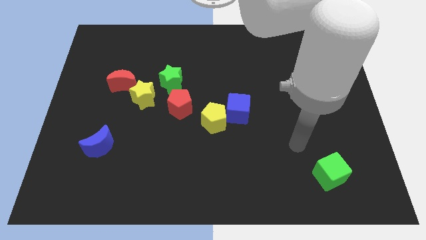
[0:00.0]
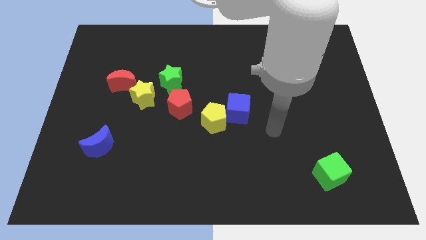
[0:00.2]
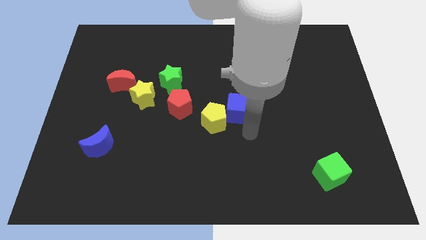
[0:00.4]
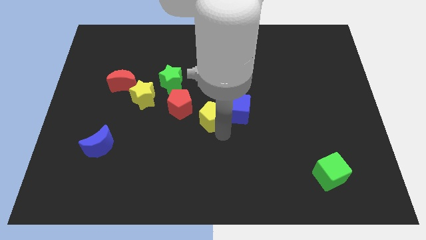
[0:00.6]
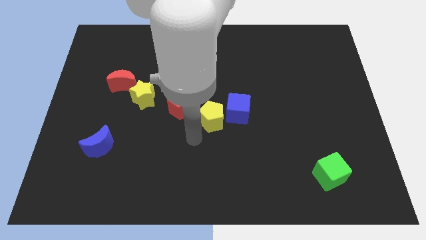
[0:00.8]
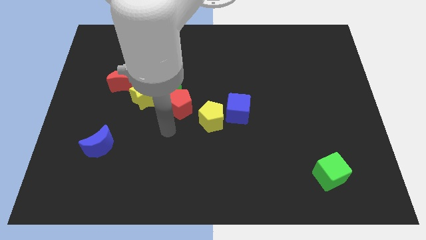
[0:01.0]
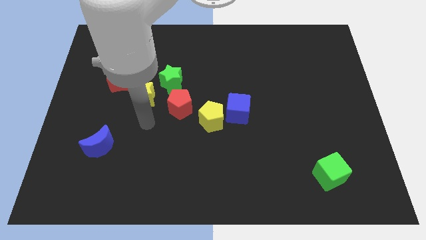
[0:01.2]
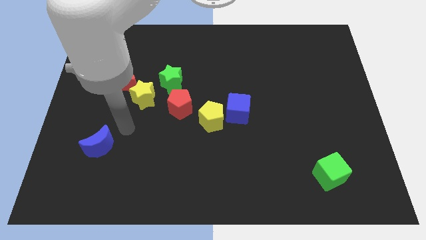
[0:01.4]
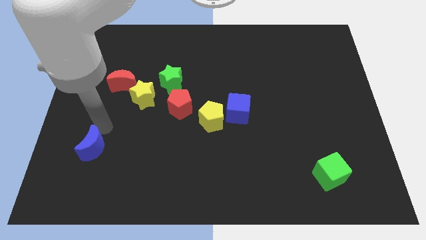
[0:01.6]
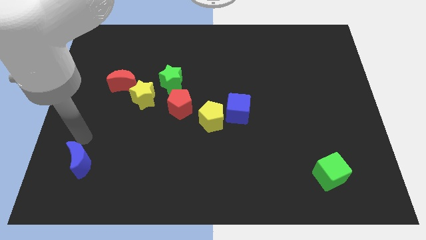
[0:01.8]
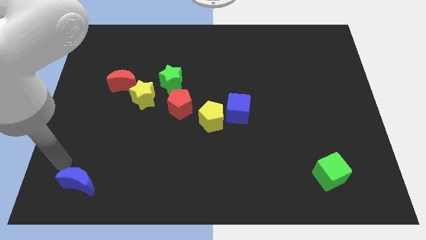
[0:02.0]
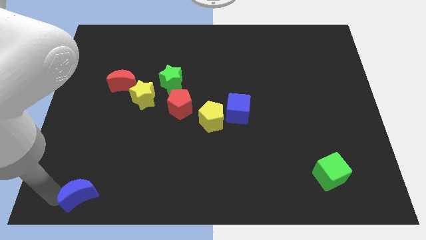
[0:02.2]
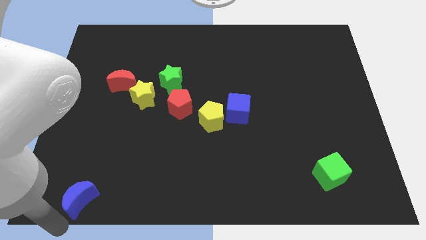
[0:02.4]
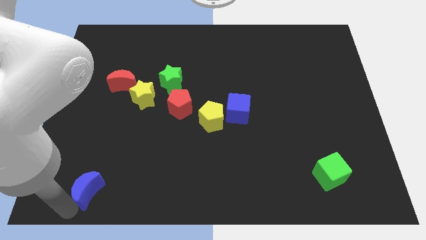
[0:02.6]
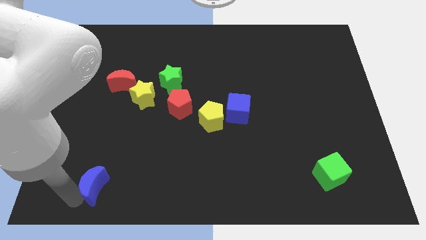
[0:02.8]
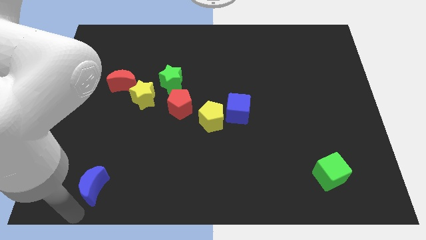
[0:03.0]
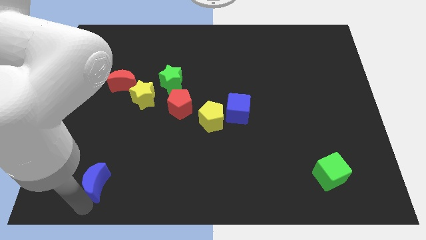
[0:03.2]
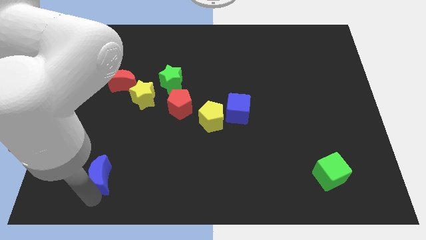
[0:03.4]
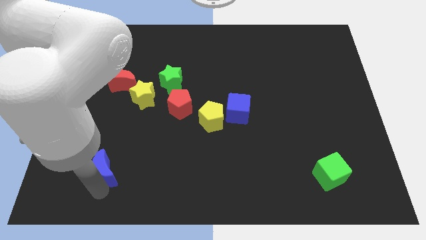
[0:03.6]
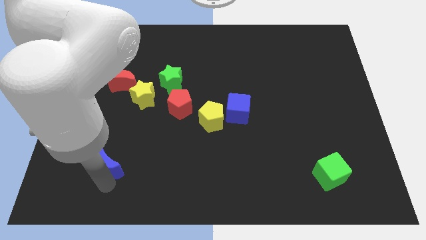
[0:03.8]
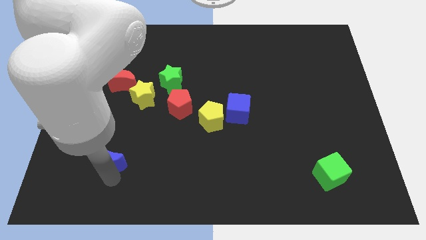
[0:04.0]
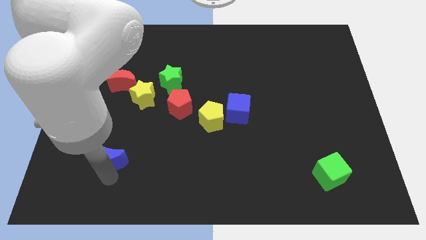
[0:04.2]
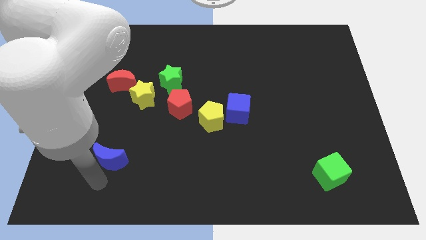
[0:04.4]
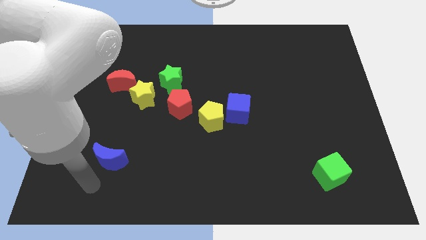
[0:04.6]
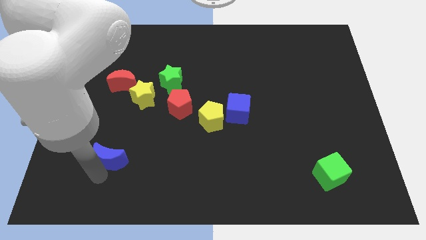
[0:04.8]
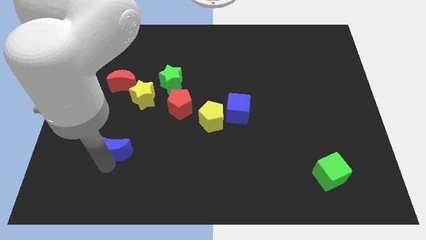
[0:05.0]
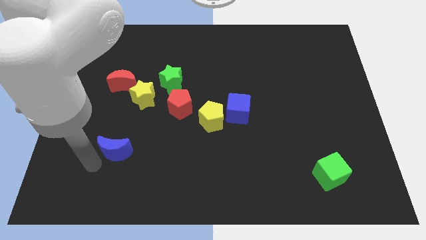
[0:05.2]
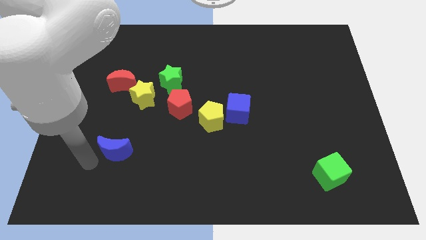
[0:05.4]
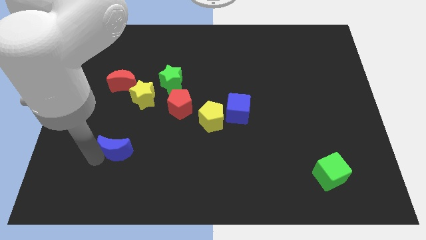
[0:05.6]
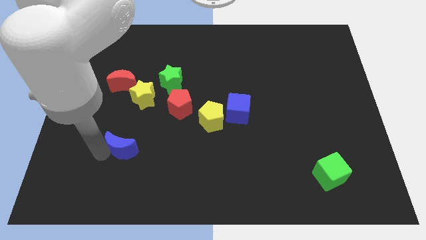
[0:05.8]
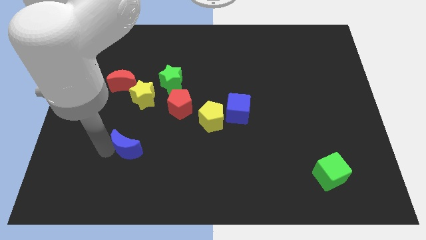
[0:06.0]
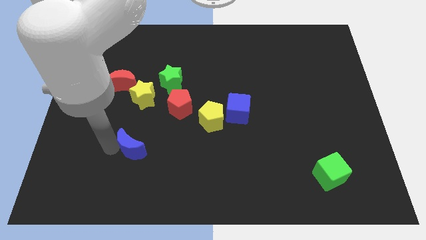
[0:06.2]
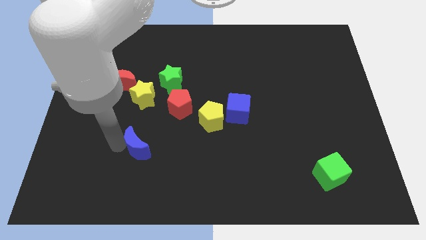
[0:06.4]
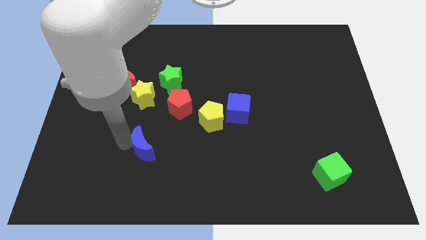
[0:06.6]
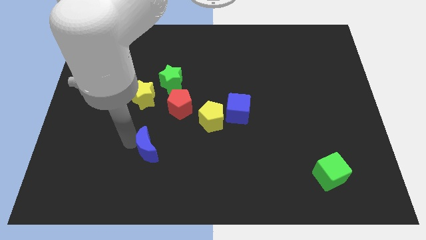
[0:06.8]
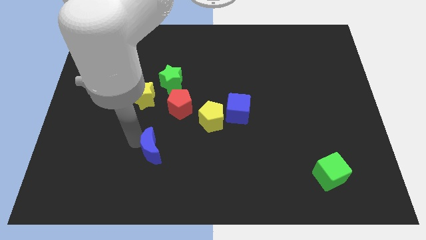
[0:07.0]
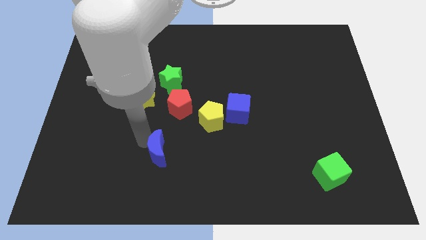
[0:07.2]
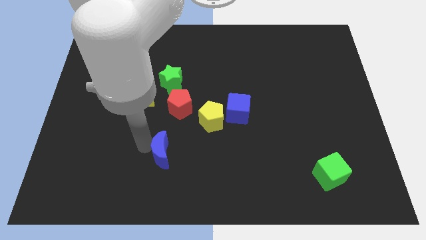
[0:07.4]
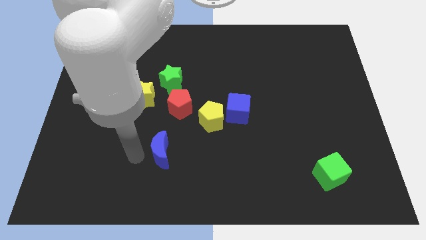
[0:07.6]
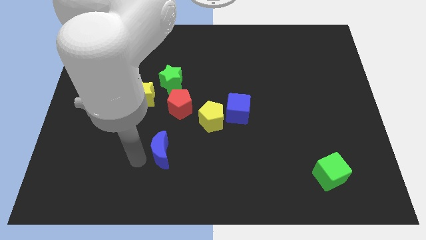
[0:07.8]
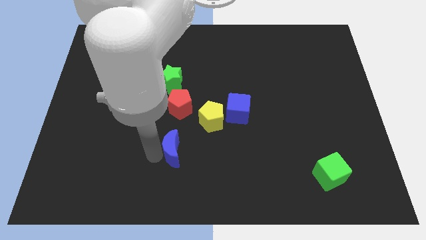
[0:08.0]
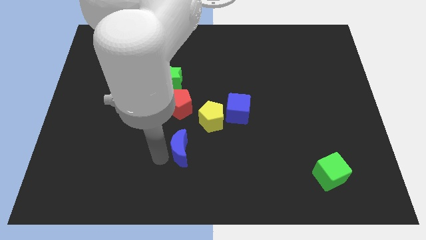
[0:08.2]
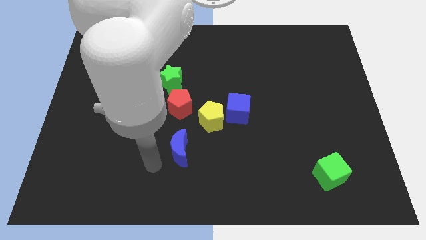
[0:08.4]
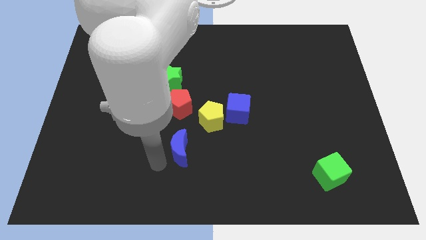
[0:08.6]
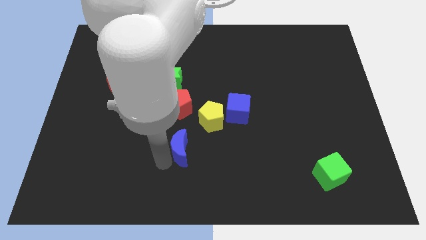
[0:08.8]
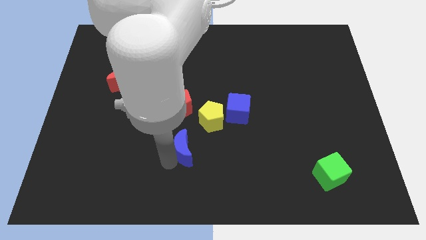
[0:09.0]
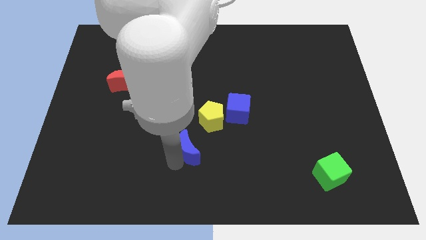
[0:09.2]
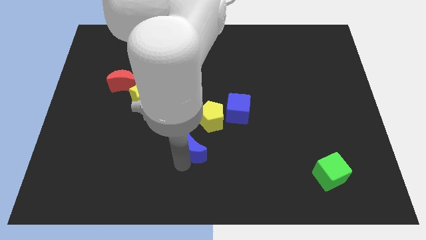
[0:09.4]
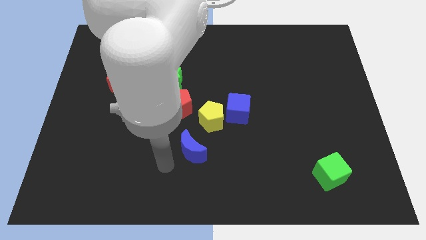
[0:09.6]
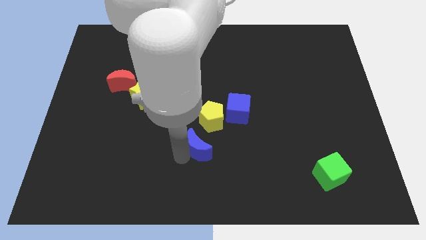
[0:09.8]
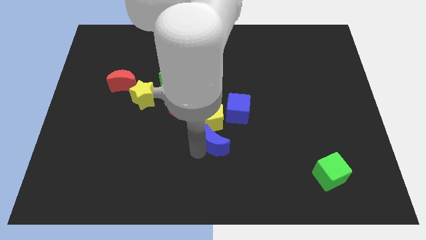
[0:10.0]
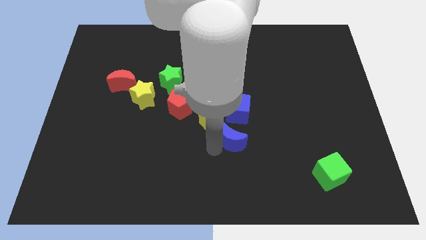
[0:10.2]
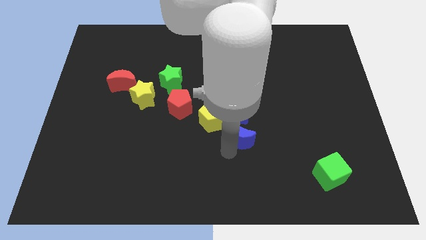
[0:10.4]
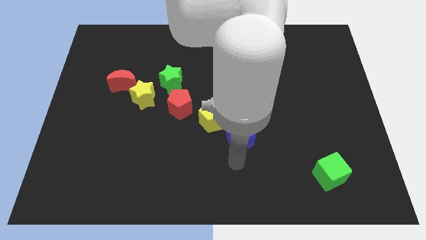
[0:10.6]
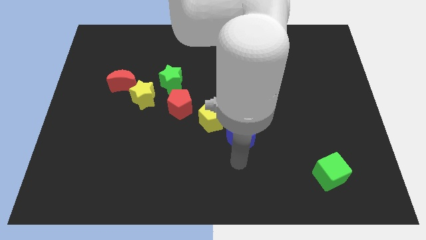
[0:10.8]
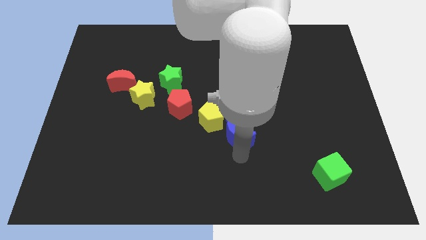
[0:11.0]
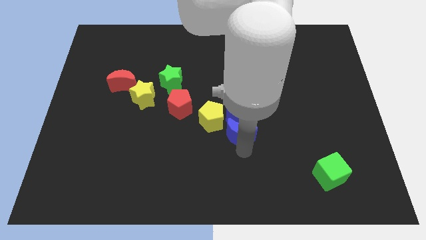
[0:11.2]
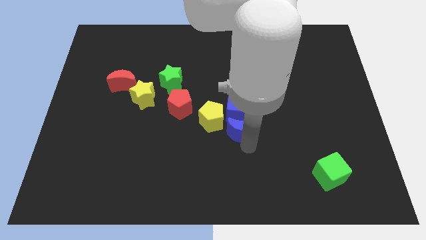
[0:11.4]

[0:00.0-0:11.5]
move the blue moon close to the blue cube

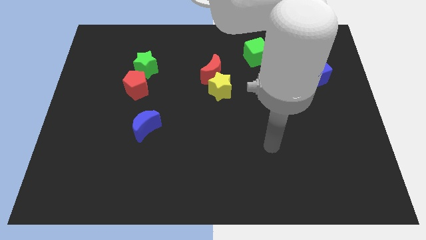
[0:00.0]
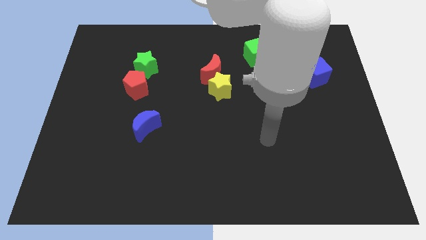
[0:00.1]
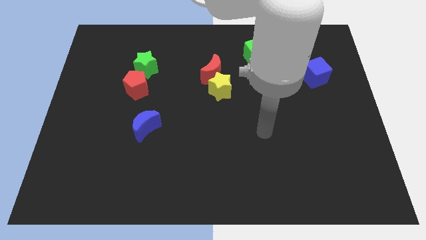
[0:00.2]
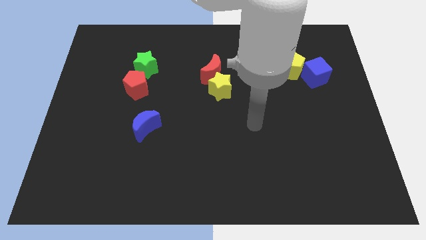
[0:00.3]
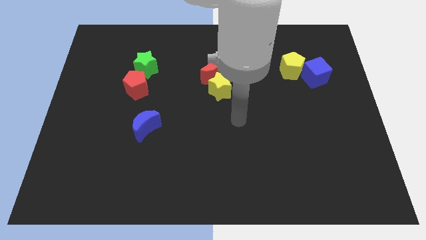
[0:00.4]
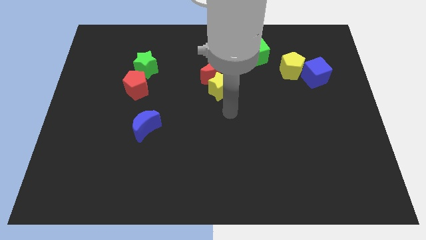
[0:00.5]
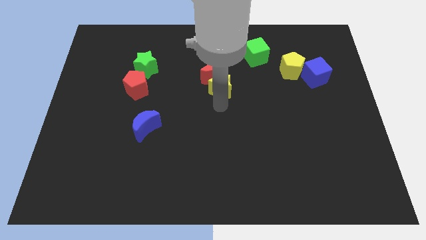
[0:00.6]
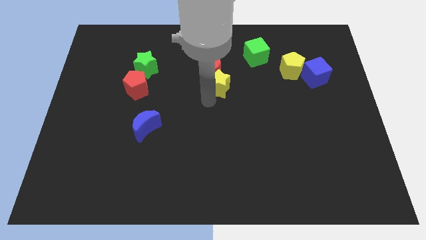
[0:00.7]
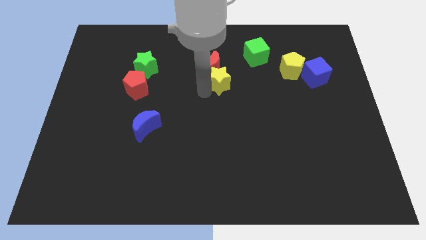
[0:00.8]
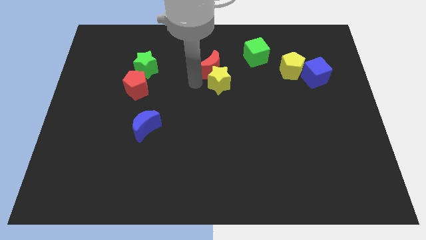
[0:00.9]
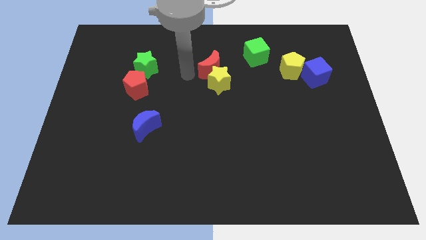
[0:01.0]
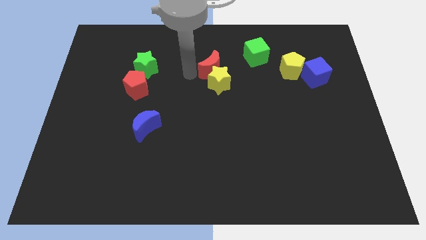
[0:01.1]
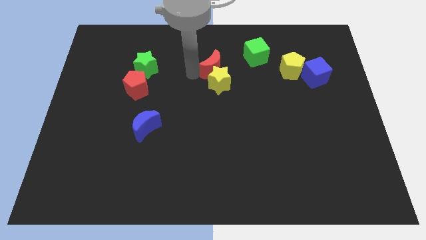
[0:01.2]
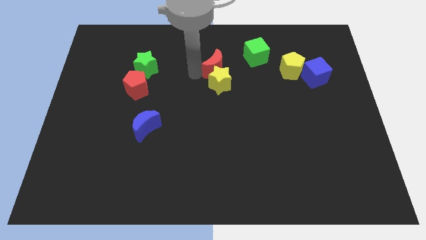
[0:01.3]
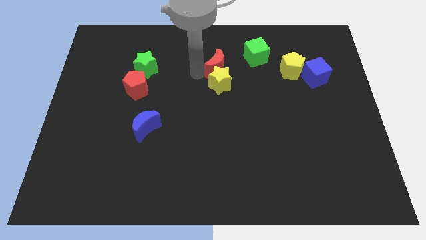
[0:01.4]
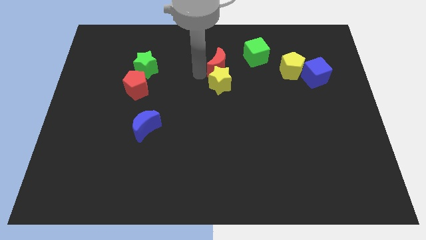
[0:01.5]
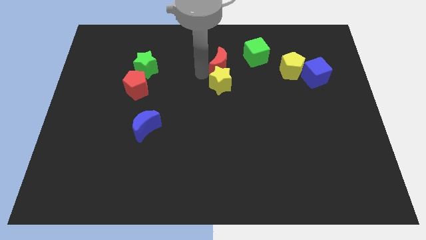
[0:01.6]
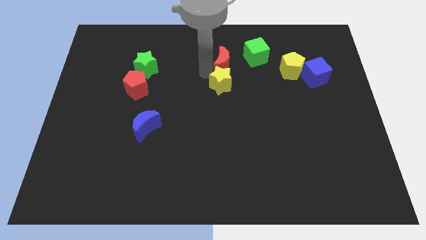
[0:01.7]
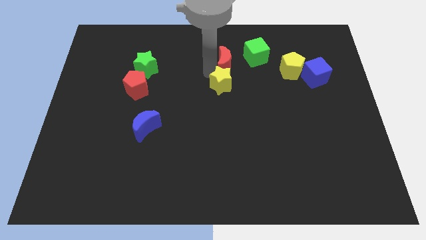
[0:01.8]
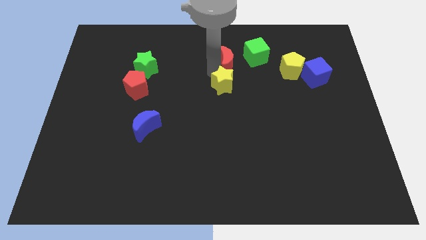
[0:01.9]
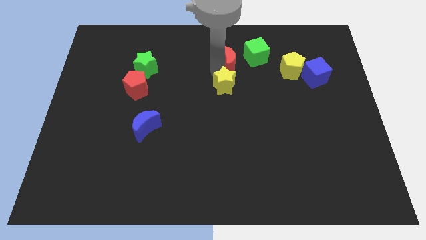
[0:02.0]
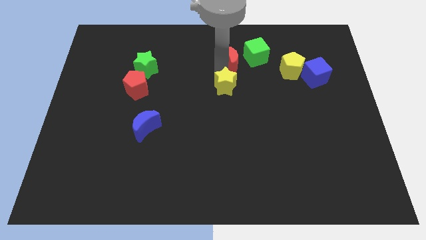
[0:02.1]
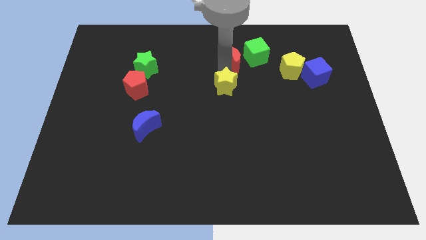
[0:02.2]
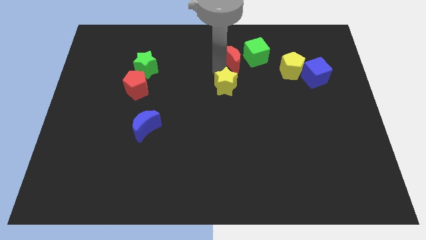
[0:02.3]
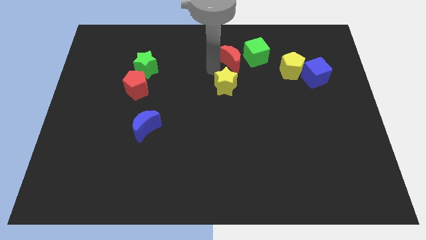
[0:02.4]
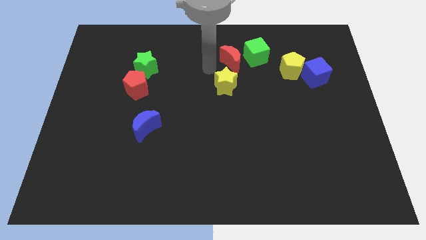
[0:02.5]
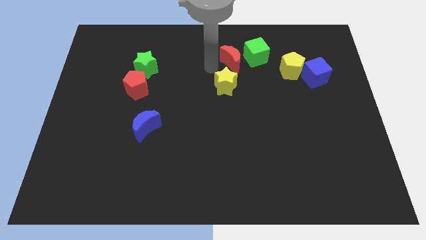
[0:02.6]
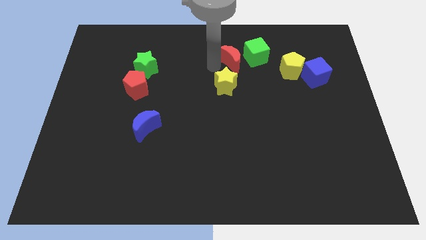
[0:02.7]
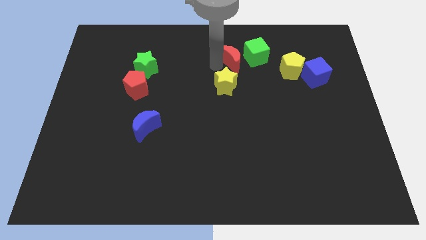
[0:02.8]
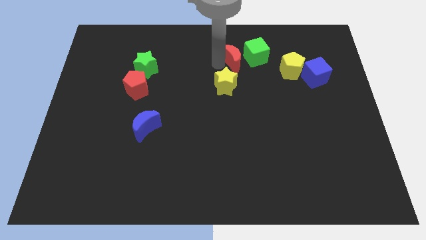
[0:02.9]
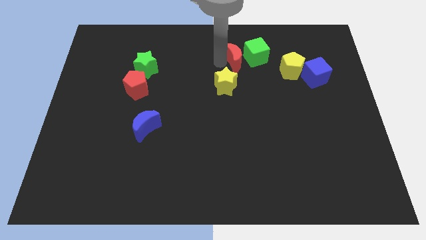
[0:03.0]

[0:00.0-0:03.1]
move the red moon to the green cube
